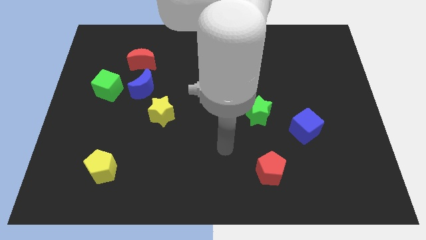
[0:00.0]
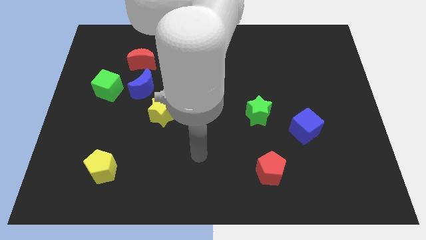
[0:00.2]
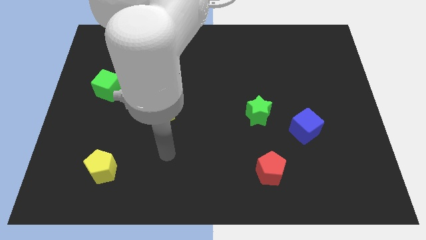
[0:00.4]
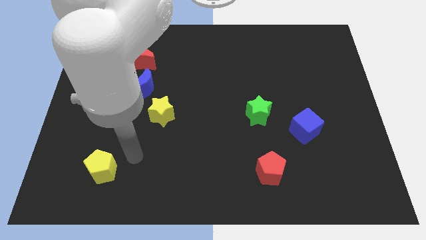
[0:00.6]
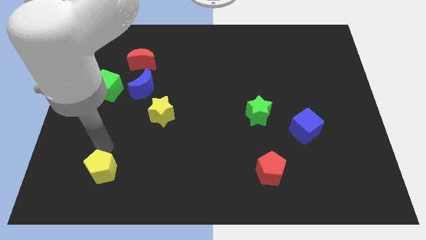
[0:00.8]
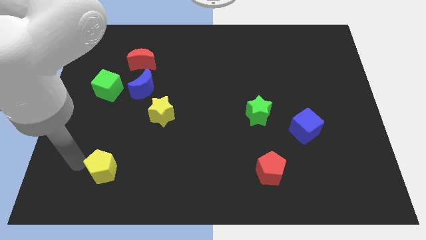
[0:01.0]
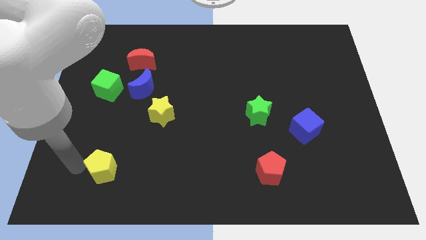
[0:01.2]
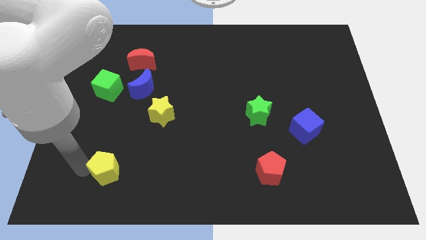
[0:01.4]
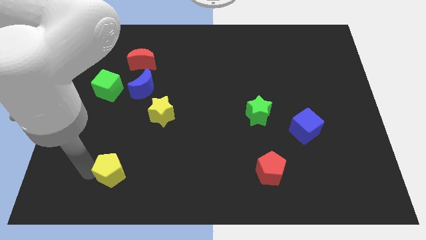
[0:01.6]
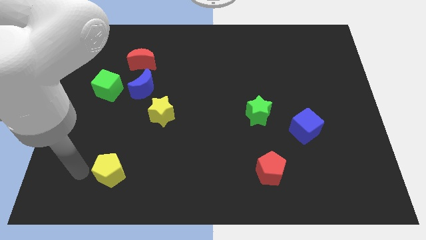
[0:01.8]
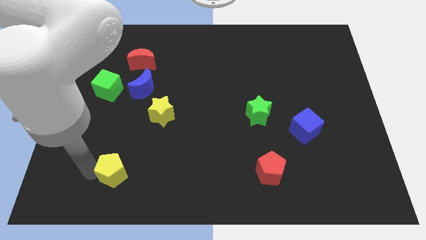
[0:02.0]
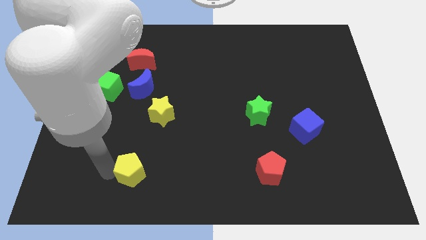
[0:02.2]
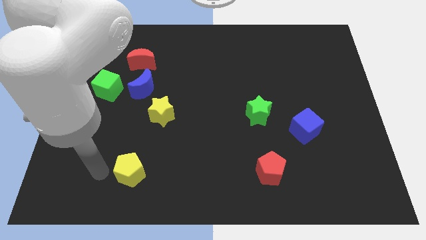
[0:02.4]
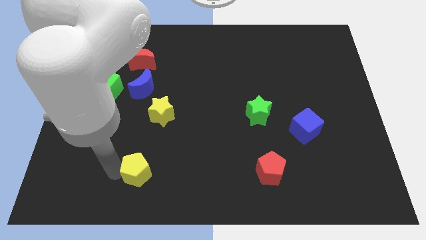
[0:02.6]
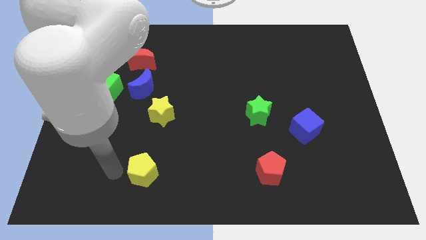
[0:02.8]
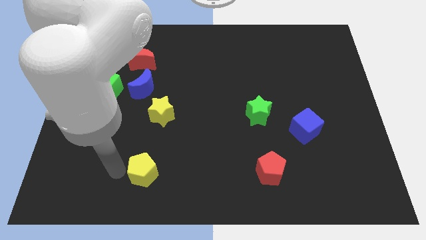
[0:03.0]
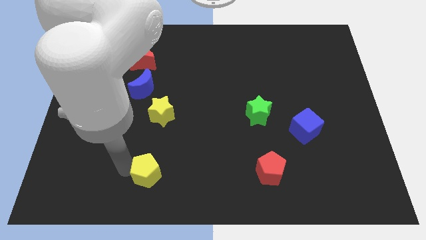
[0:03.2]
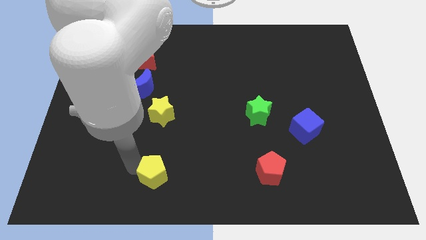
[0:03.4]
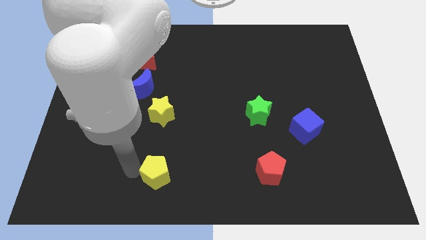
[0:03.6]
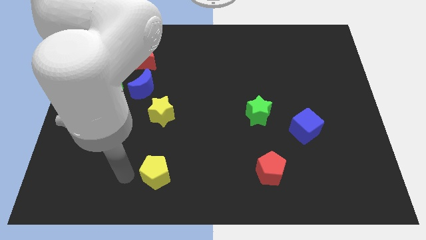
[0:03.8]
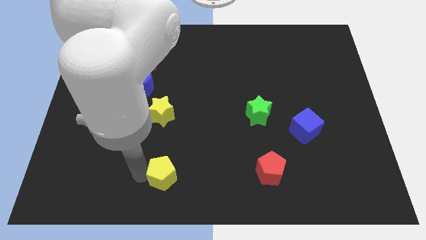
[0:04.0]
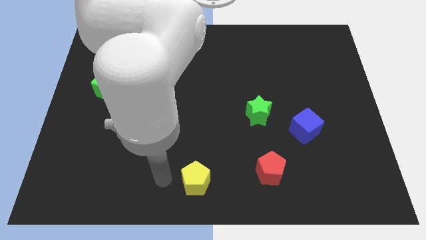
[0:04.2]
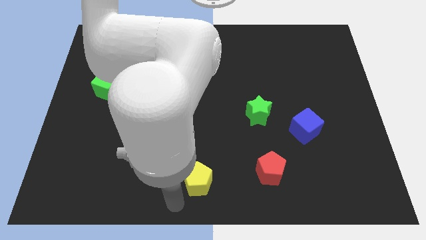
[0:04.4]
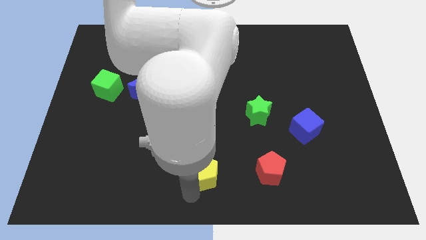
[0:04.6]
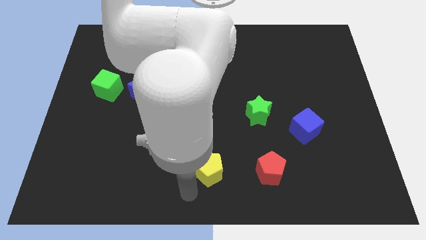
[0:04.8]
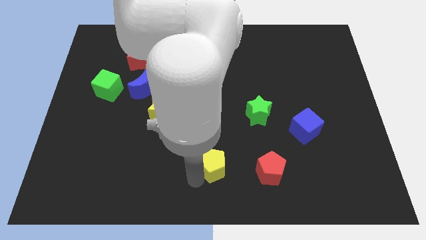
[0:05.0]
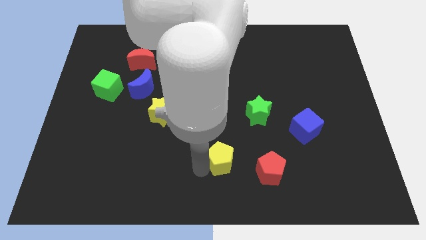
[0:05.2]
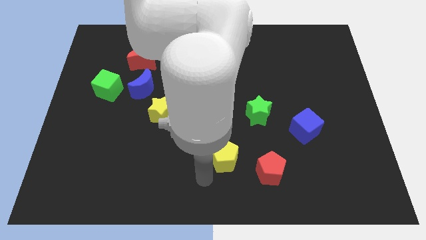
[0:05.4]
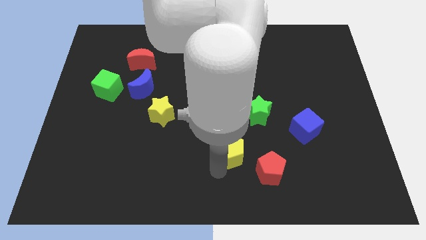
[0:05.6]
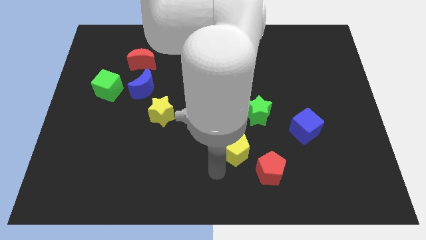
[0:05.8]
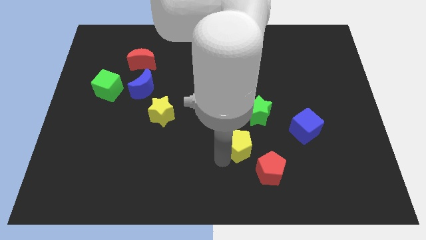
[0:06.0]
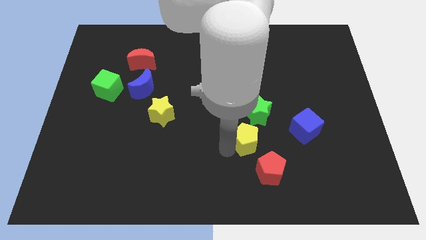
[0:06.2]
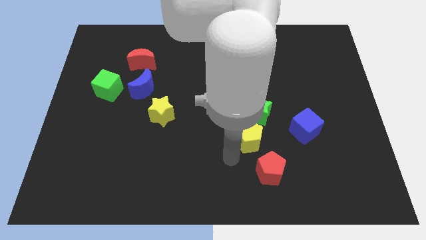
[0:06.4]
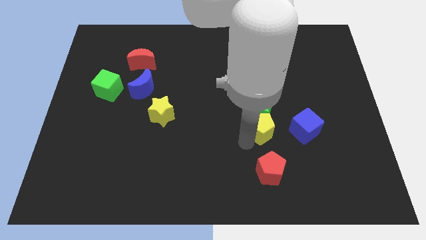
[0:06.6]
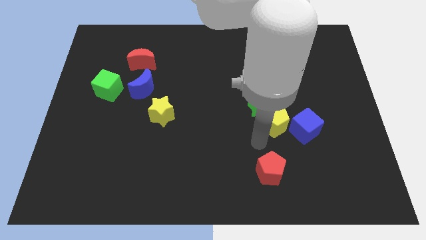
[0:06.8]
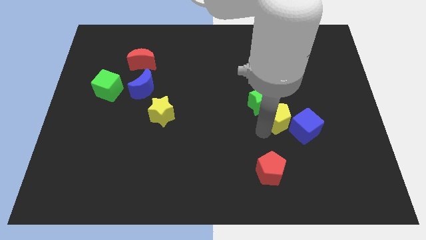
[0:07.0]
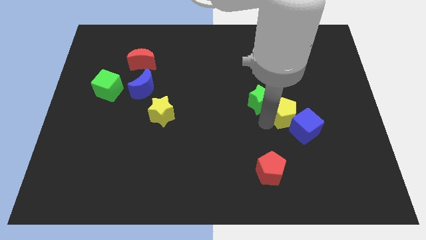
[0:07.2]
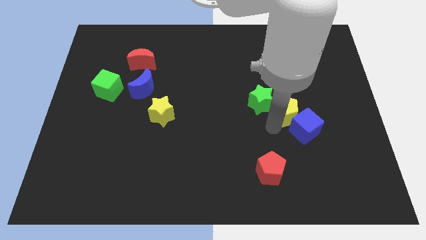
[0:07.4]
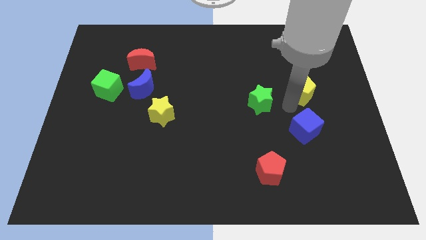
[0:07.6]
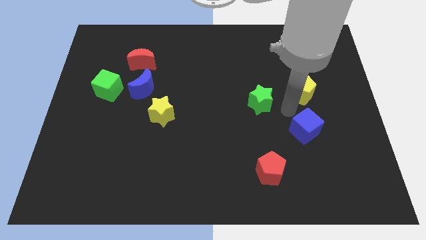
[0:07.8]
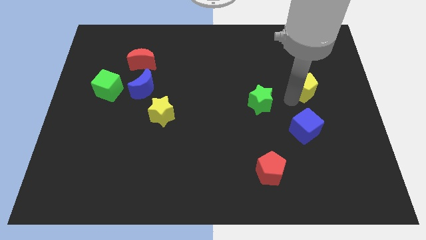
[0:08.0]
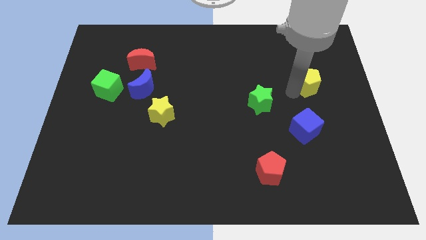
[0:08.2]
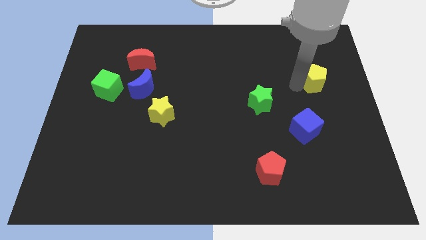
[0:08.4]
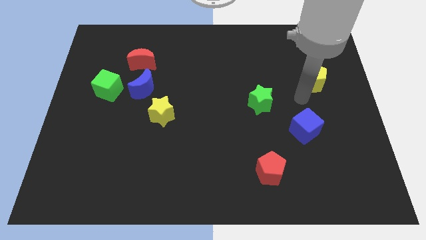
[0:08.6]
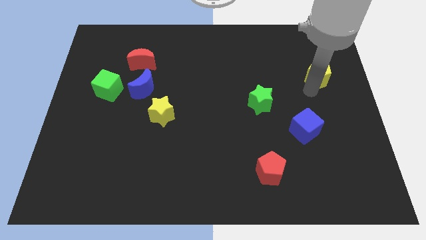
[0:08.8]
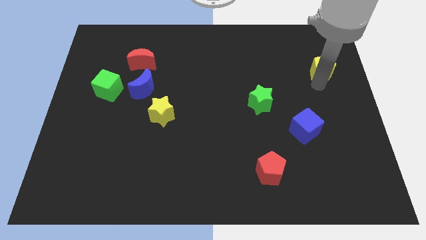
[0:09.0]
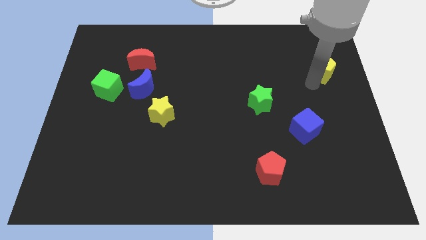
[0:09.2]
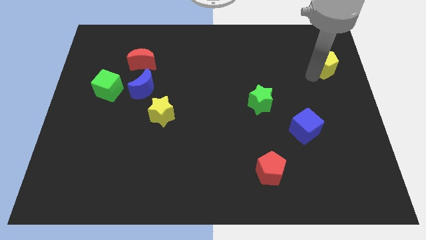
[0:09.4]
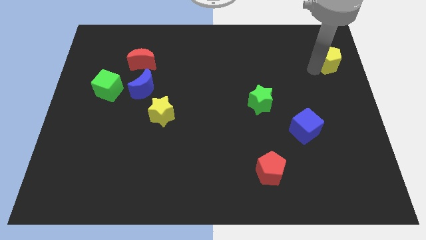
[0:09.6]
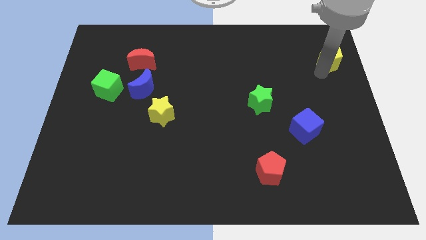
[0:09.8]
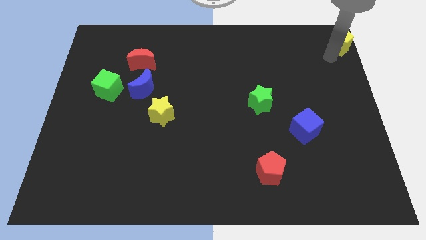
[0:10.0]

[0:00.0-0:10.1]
move the yellow pentagon to the top right corner

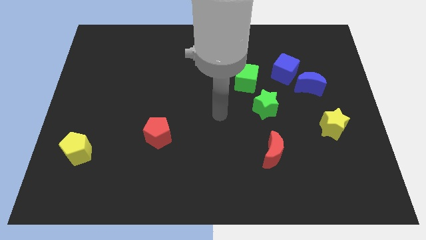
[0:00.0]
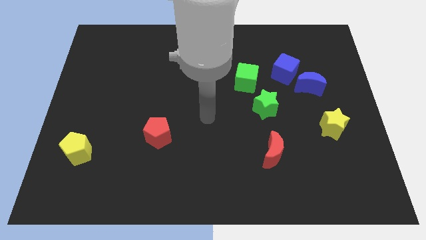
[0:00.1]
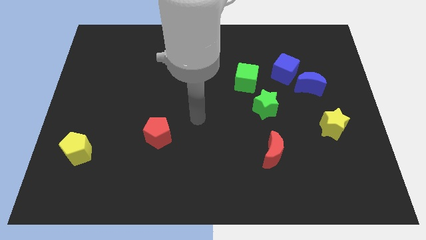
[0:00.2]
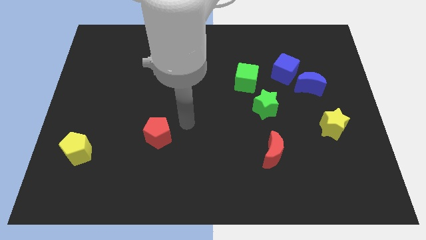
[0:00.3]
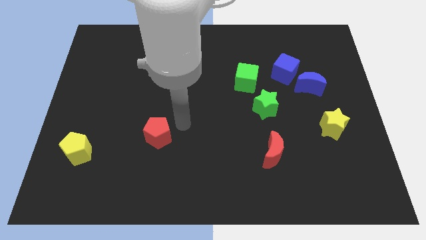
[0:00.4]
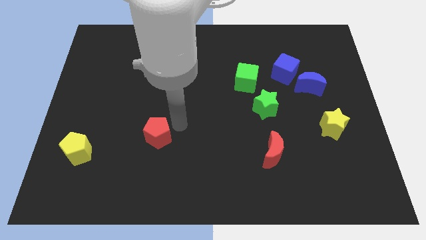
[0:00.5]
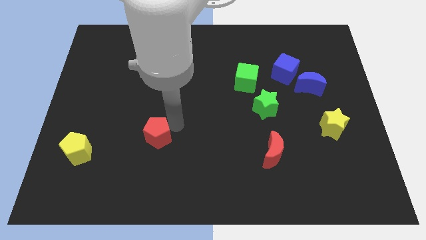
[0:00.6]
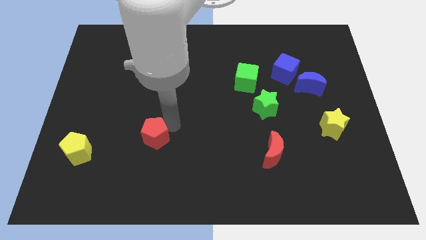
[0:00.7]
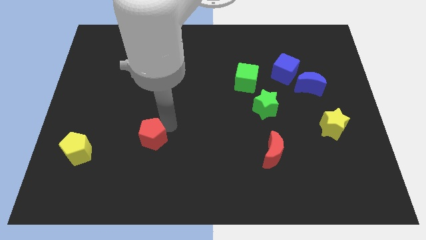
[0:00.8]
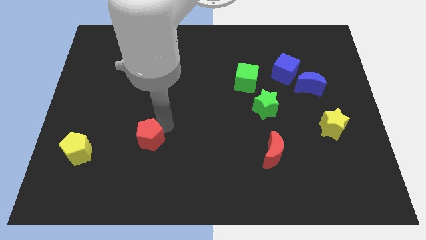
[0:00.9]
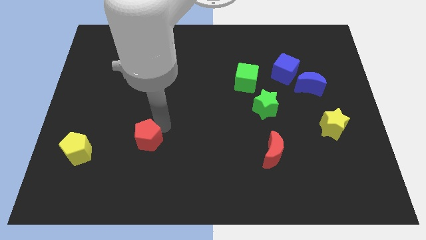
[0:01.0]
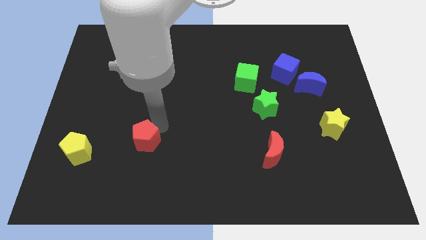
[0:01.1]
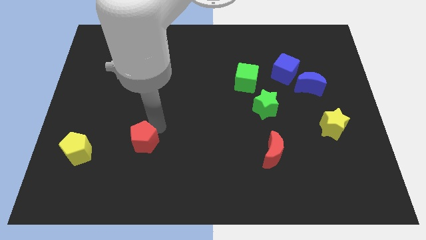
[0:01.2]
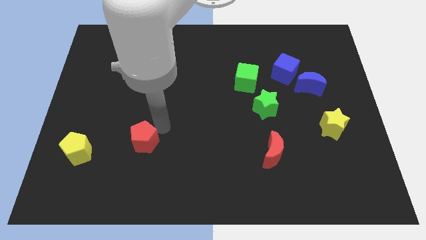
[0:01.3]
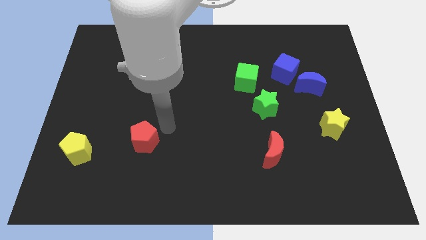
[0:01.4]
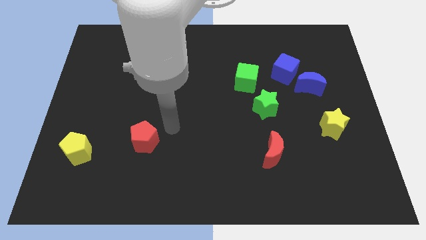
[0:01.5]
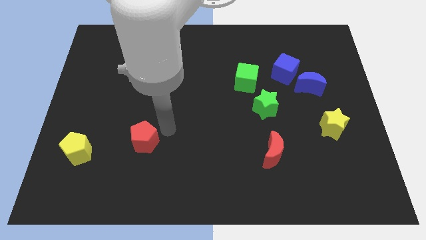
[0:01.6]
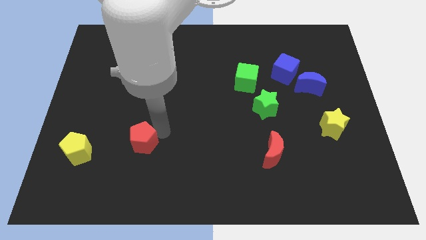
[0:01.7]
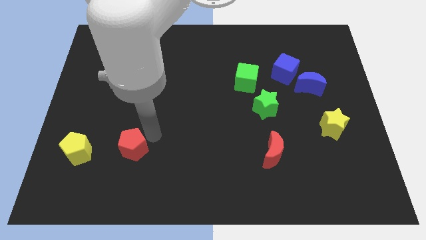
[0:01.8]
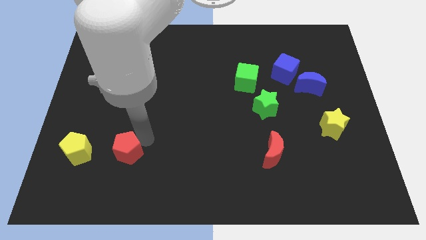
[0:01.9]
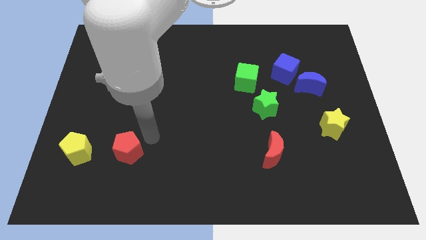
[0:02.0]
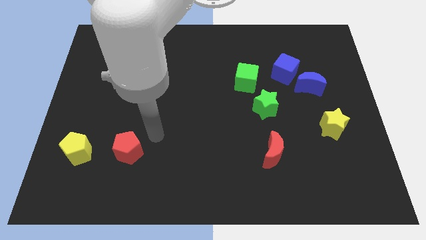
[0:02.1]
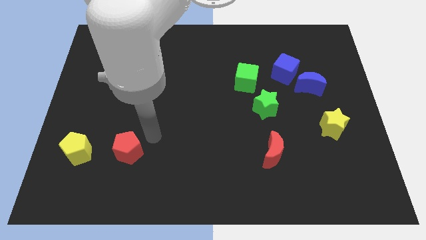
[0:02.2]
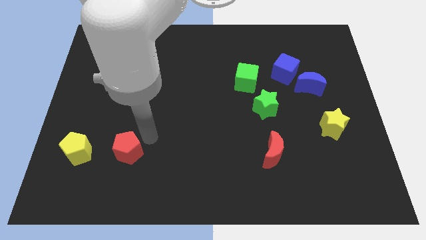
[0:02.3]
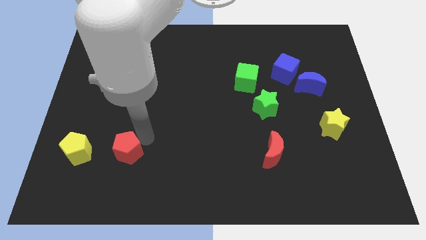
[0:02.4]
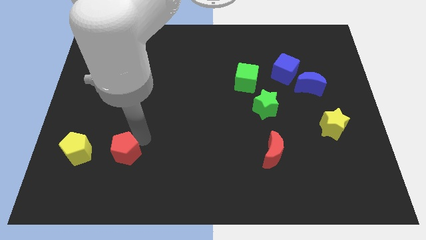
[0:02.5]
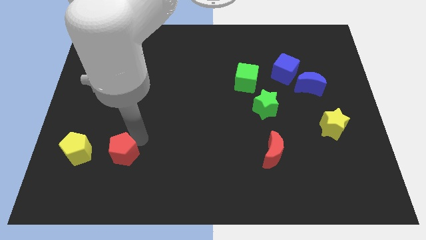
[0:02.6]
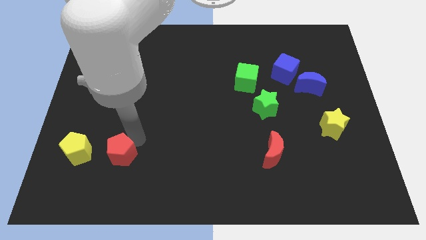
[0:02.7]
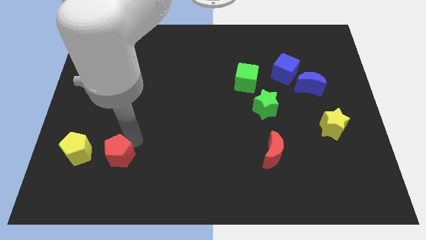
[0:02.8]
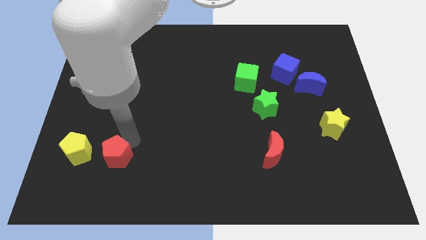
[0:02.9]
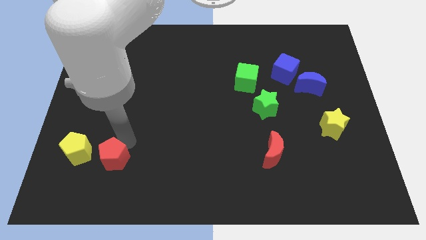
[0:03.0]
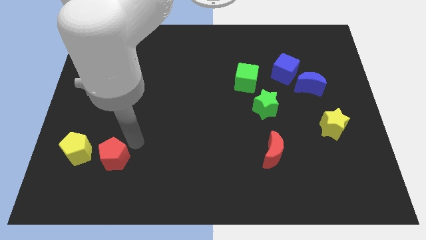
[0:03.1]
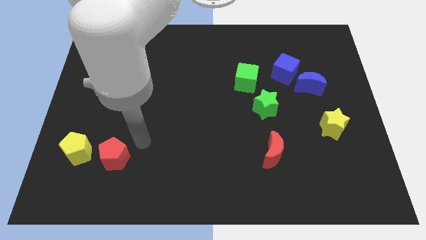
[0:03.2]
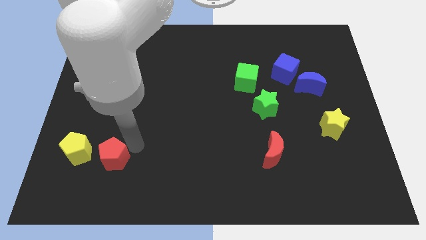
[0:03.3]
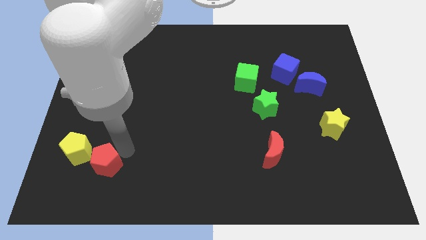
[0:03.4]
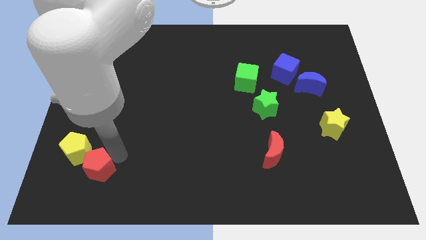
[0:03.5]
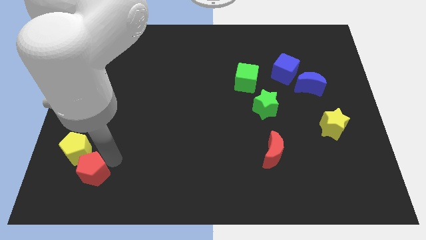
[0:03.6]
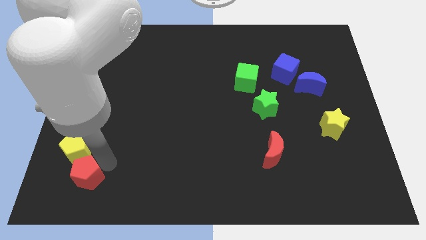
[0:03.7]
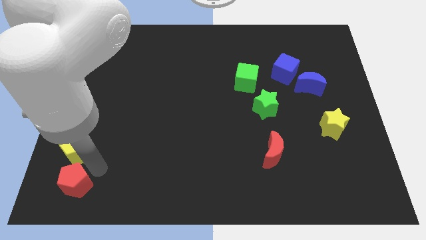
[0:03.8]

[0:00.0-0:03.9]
move the red pentagon to the bottom left
